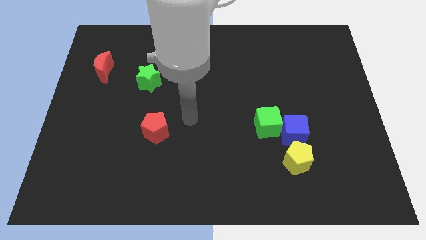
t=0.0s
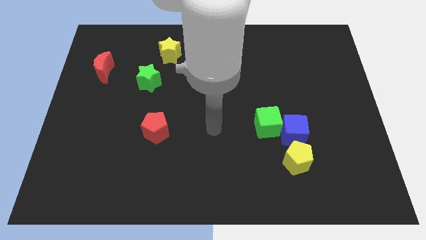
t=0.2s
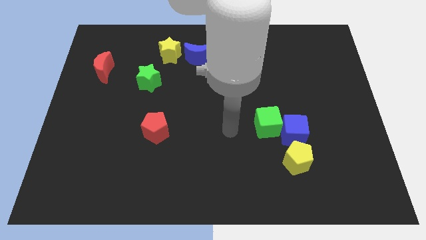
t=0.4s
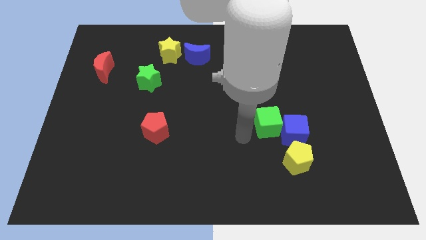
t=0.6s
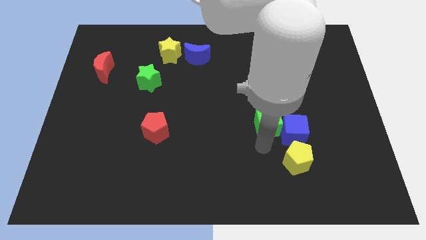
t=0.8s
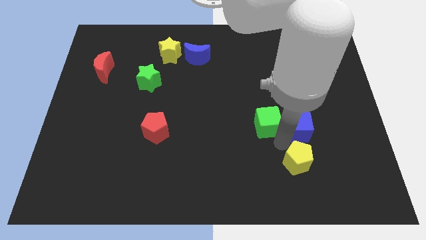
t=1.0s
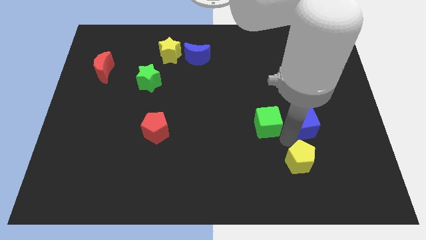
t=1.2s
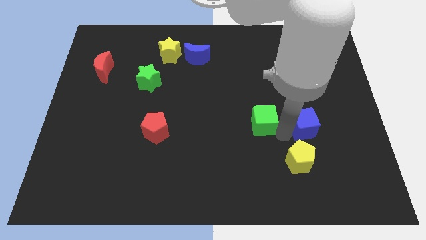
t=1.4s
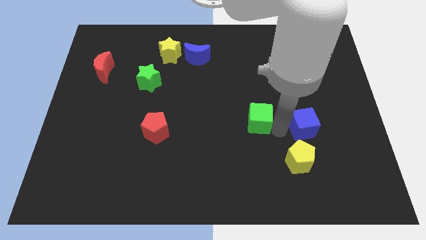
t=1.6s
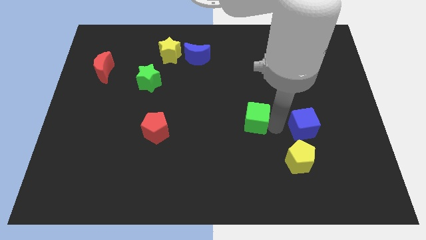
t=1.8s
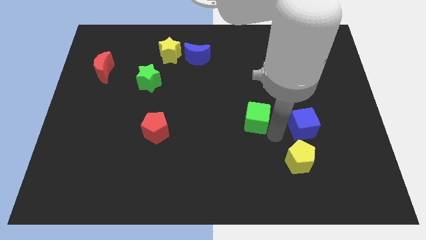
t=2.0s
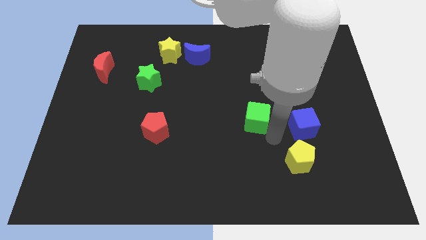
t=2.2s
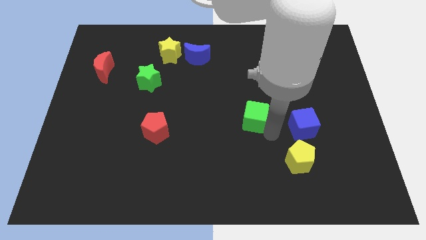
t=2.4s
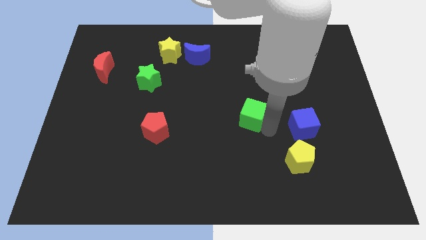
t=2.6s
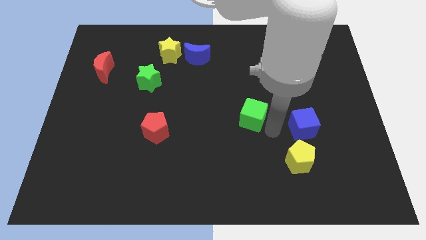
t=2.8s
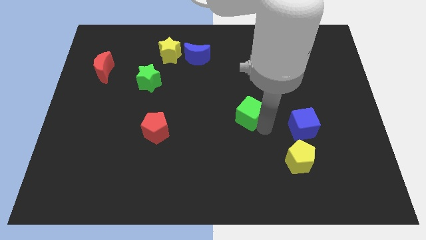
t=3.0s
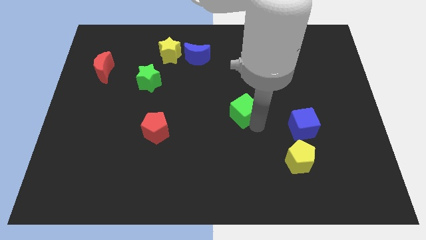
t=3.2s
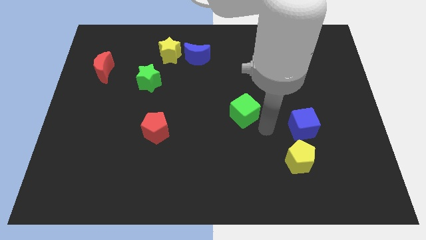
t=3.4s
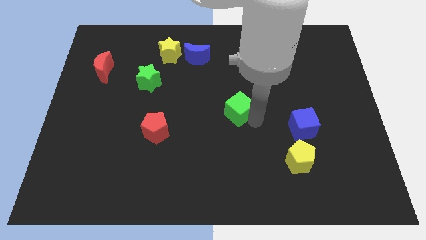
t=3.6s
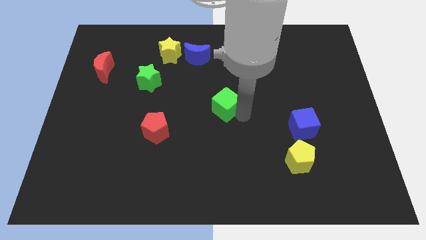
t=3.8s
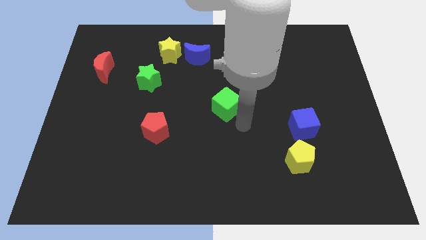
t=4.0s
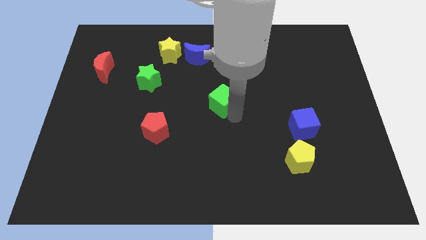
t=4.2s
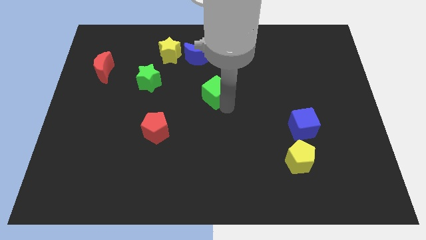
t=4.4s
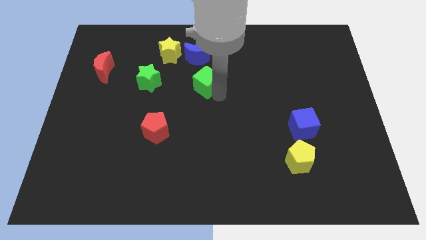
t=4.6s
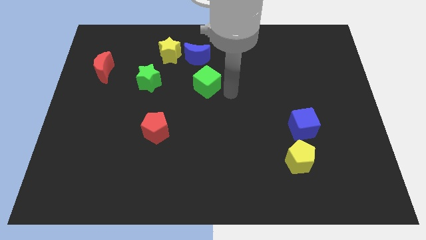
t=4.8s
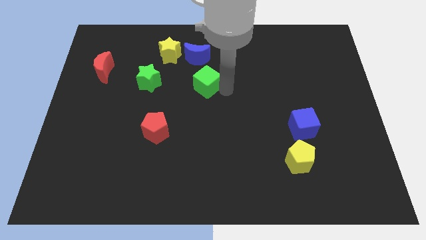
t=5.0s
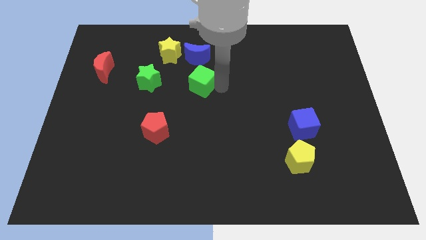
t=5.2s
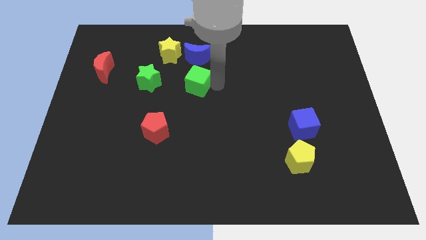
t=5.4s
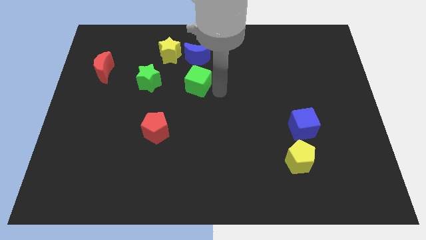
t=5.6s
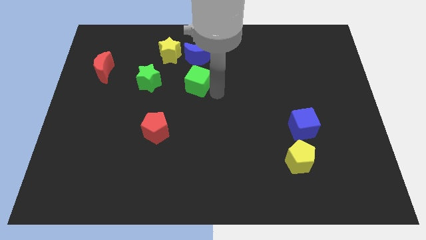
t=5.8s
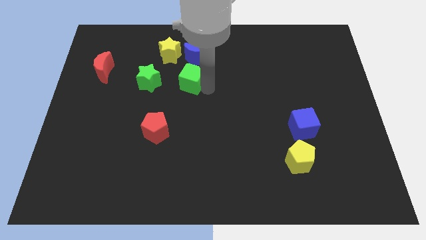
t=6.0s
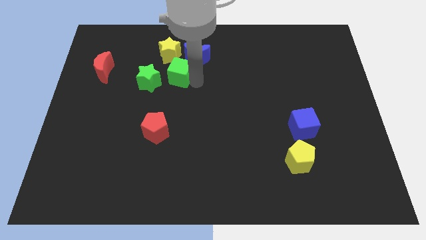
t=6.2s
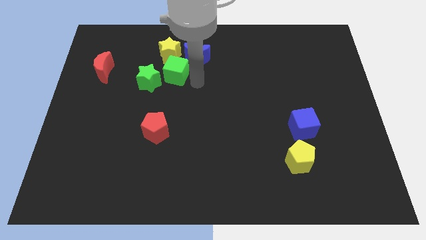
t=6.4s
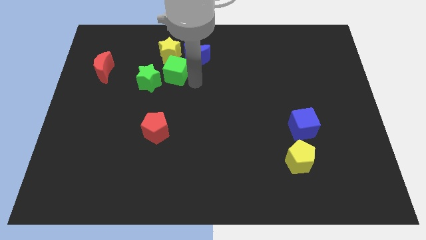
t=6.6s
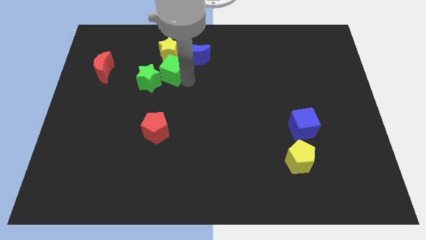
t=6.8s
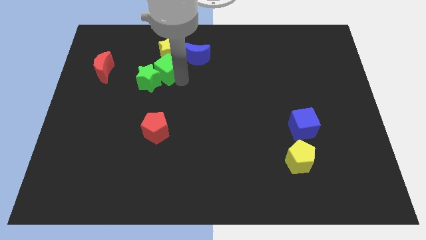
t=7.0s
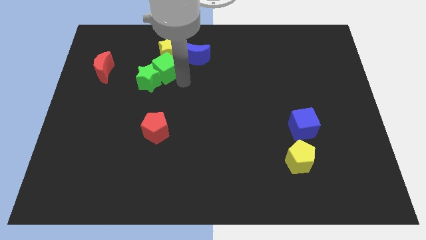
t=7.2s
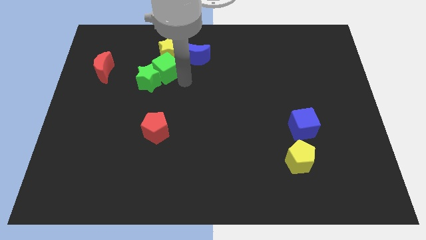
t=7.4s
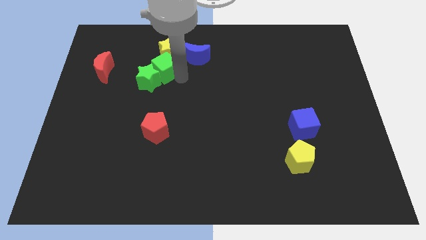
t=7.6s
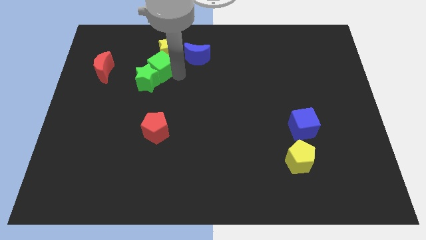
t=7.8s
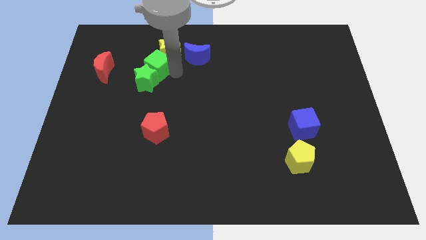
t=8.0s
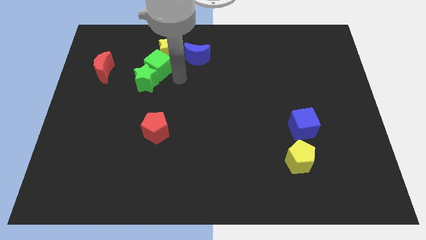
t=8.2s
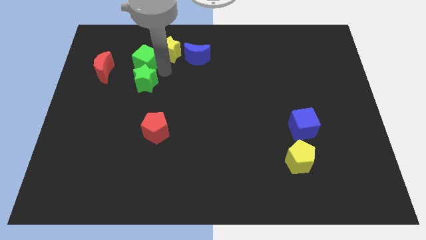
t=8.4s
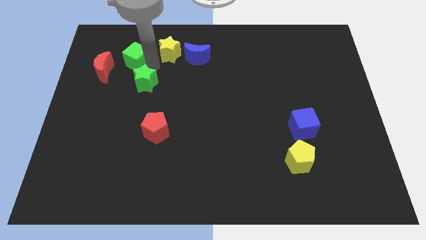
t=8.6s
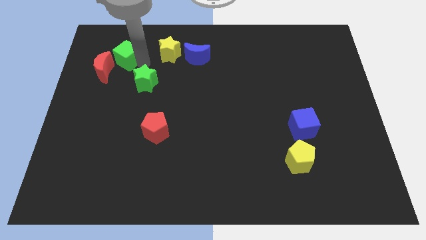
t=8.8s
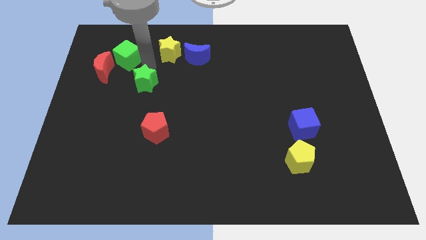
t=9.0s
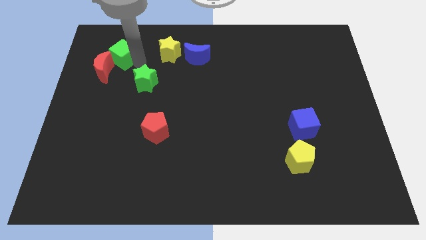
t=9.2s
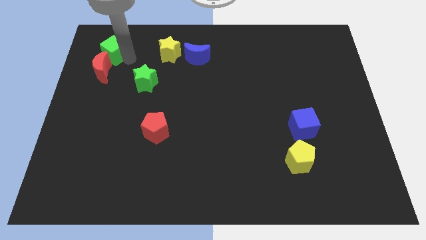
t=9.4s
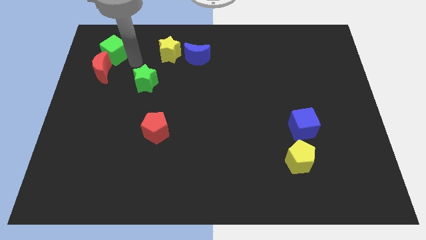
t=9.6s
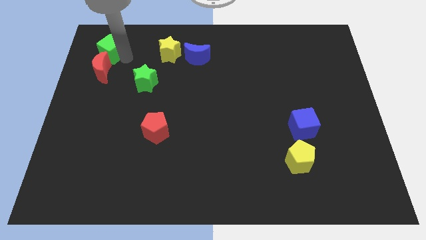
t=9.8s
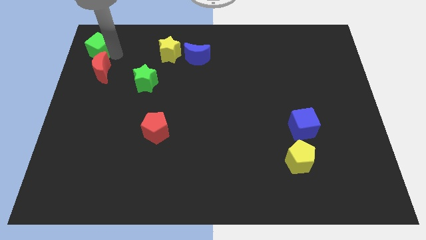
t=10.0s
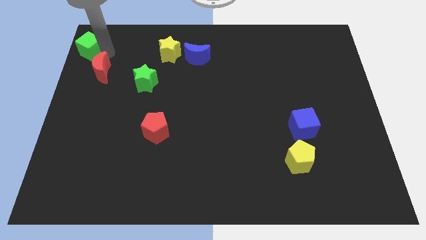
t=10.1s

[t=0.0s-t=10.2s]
push the green cube to the upper left corner

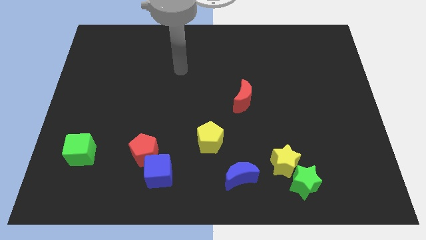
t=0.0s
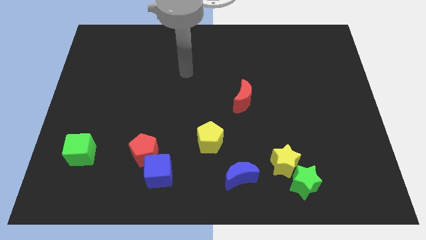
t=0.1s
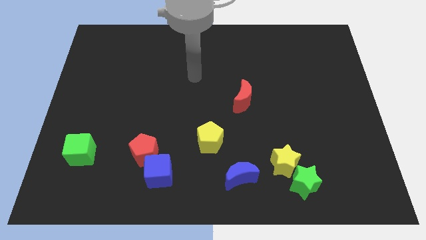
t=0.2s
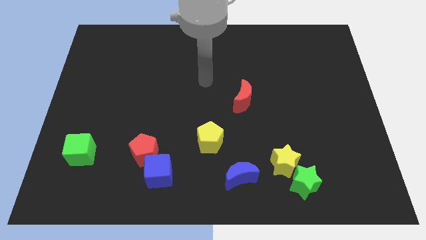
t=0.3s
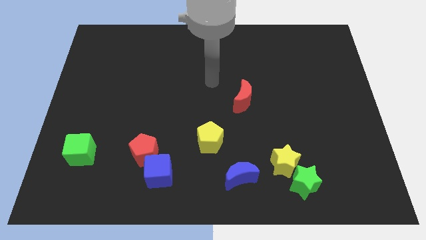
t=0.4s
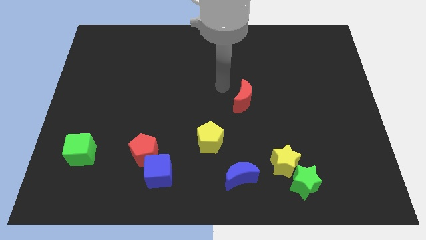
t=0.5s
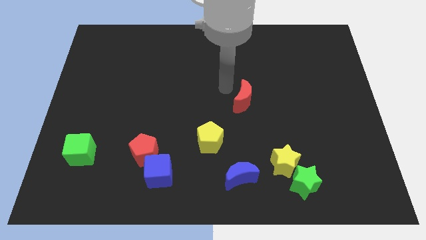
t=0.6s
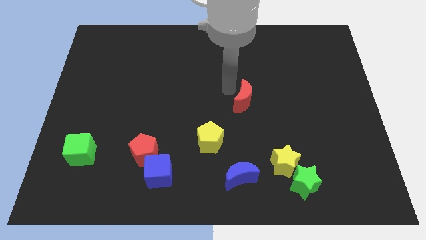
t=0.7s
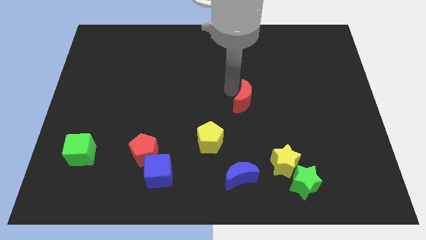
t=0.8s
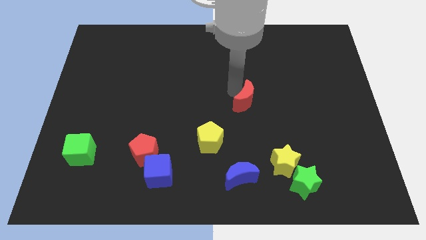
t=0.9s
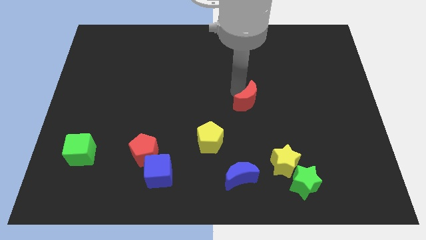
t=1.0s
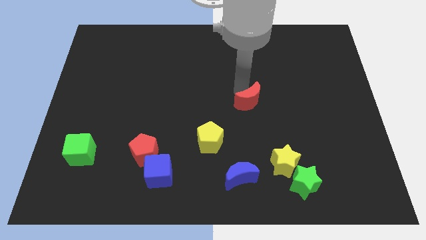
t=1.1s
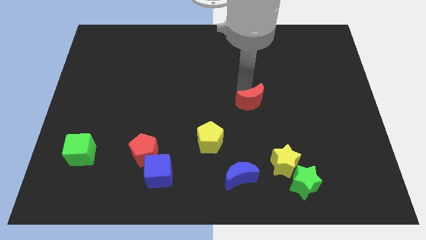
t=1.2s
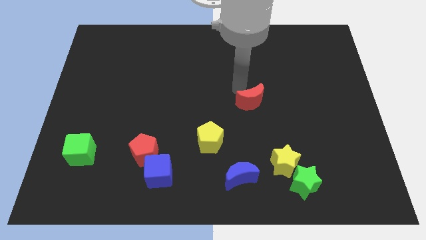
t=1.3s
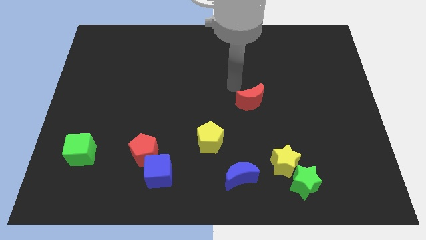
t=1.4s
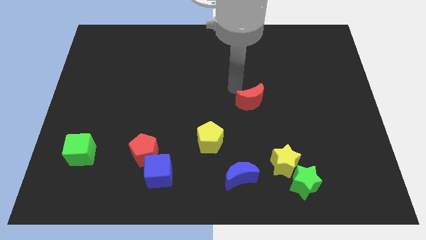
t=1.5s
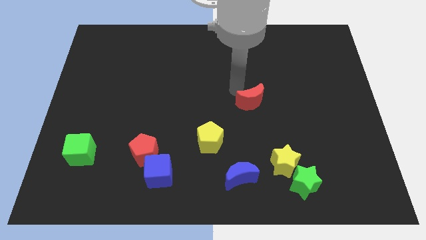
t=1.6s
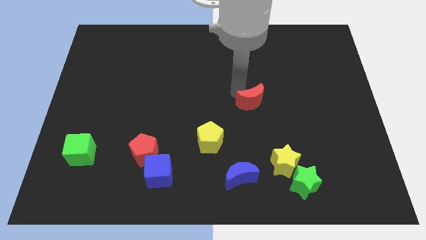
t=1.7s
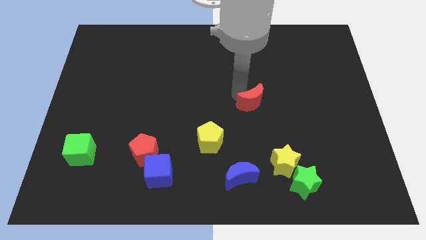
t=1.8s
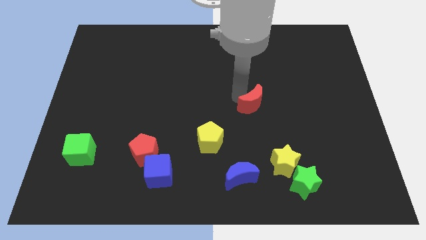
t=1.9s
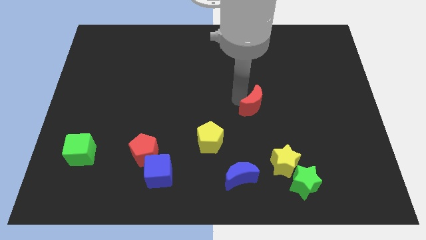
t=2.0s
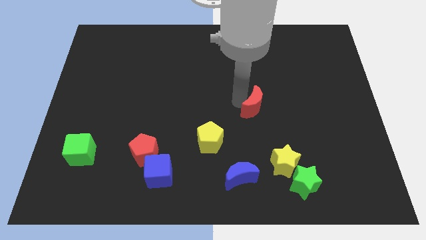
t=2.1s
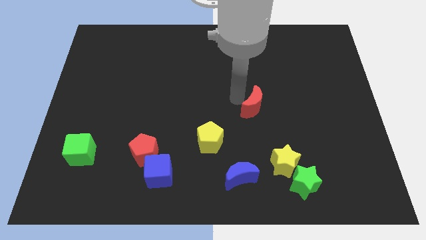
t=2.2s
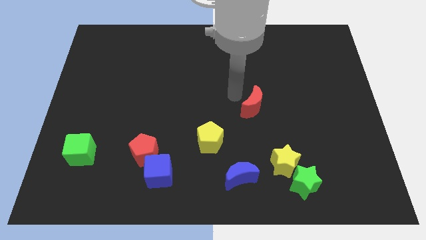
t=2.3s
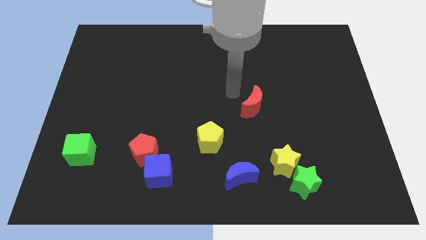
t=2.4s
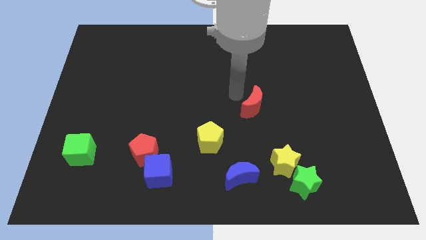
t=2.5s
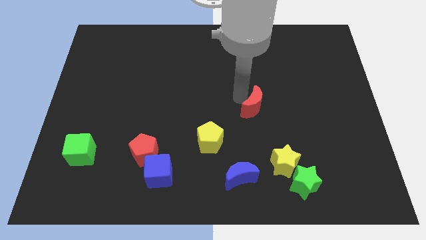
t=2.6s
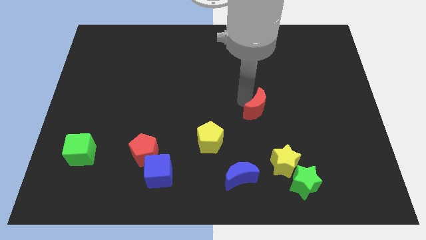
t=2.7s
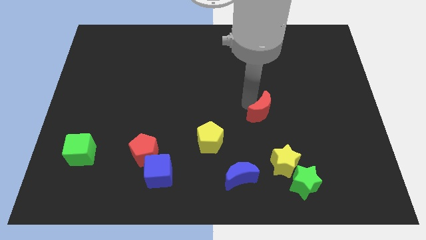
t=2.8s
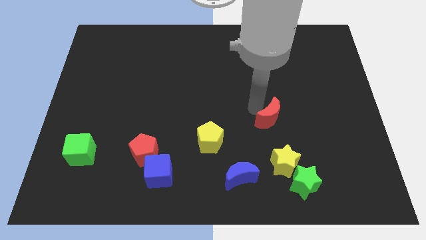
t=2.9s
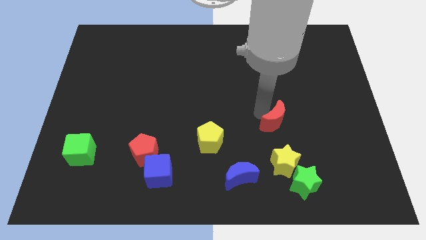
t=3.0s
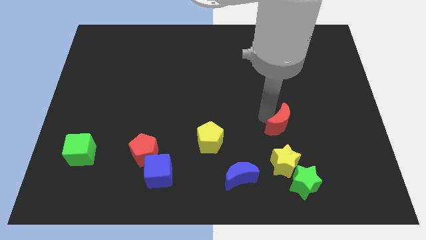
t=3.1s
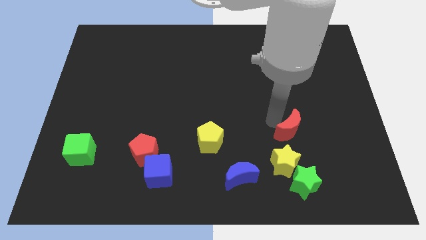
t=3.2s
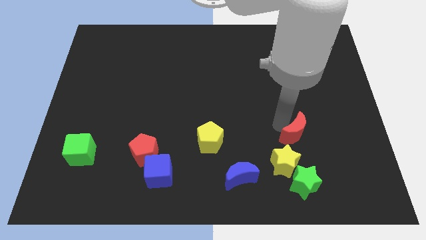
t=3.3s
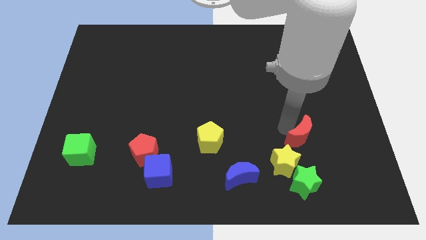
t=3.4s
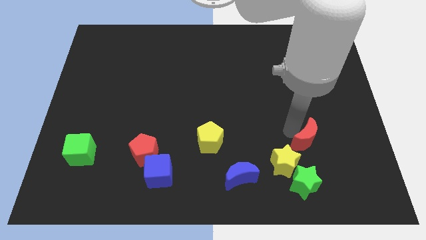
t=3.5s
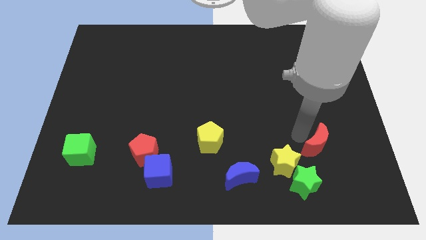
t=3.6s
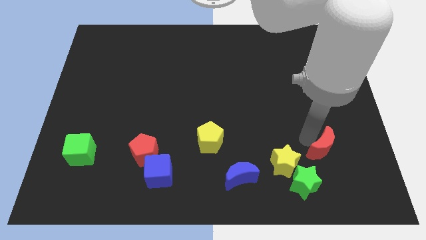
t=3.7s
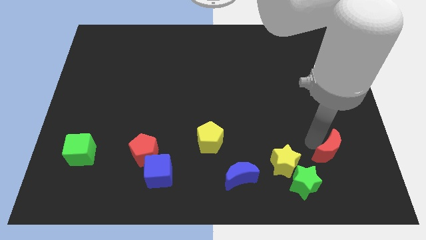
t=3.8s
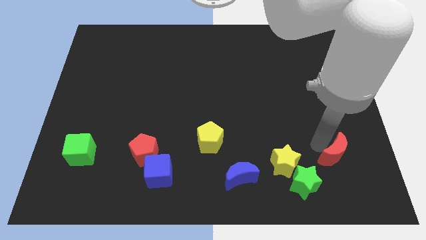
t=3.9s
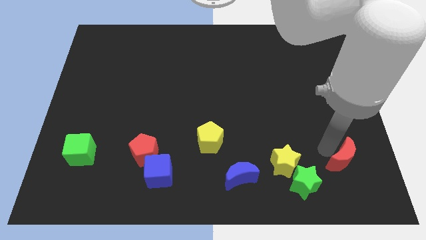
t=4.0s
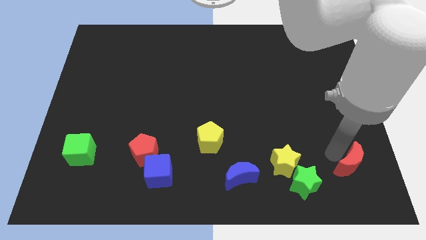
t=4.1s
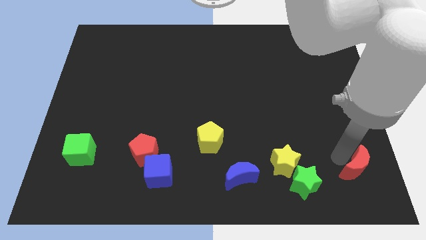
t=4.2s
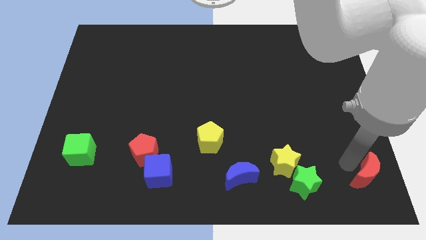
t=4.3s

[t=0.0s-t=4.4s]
slide the red moon to the bottom right of the board
